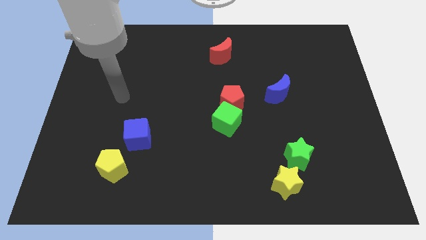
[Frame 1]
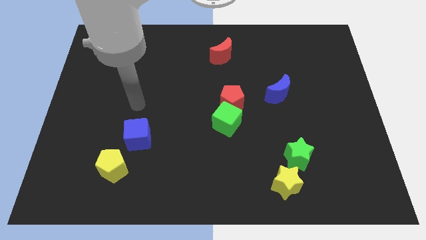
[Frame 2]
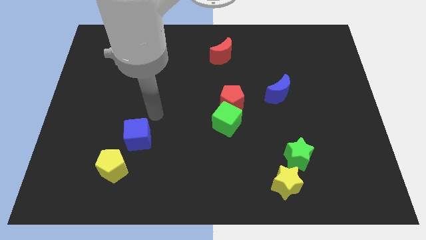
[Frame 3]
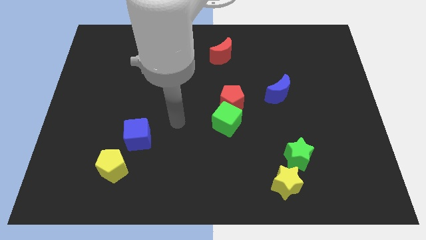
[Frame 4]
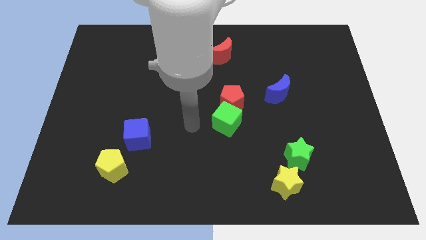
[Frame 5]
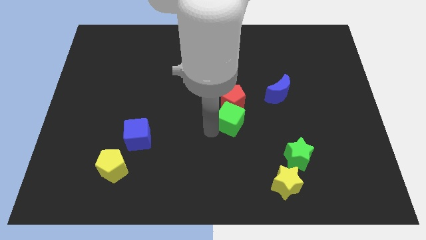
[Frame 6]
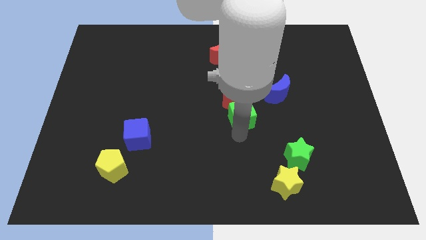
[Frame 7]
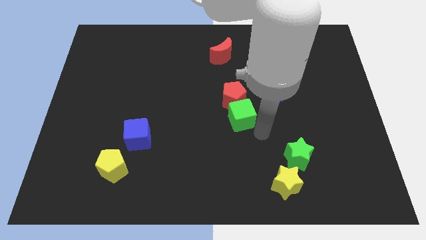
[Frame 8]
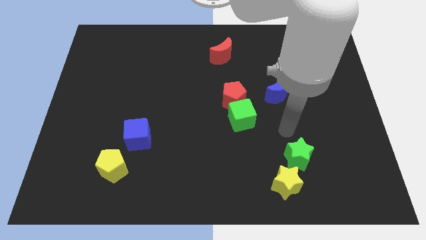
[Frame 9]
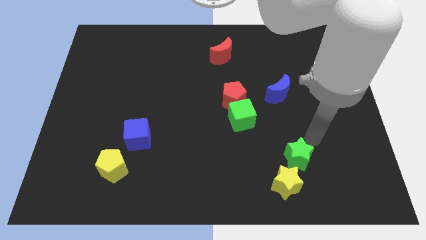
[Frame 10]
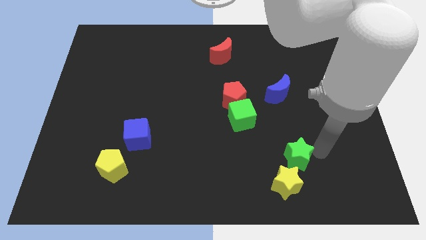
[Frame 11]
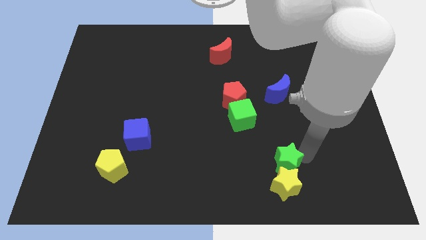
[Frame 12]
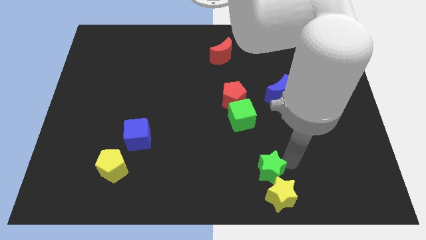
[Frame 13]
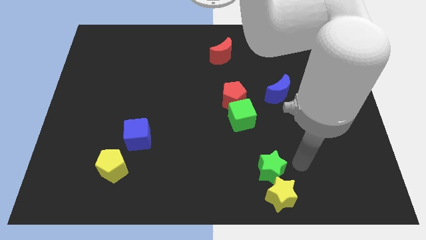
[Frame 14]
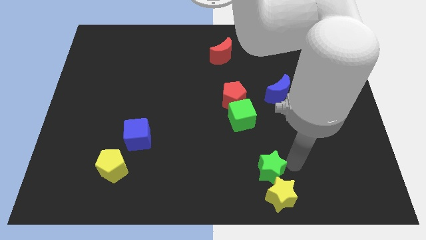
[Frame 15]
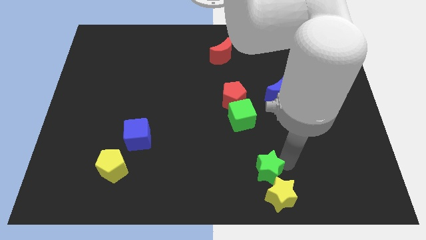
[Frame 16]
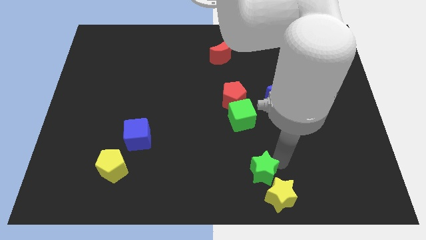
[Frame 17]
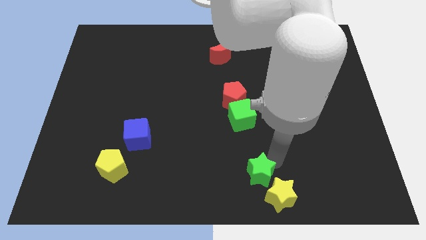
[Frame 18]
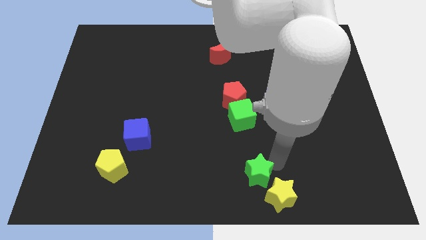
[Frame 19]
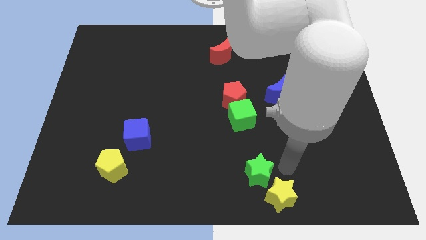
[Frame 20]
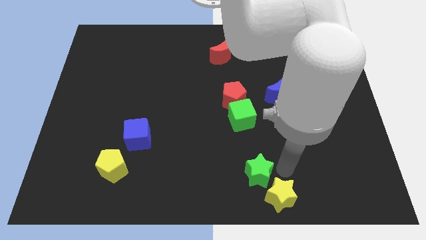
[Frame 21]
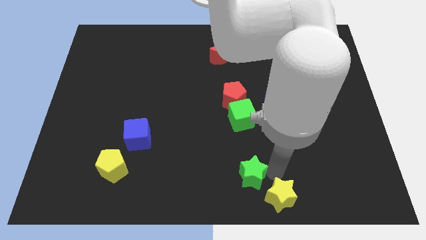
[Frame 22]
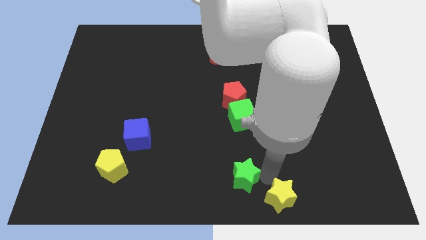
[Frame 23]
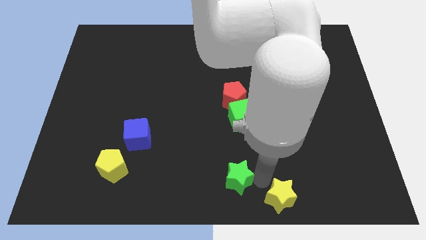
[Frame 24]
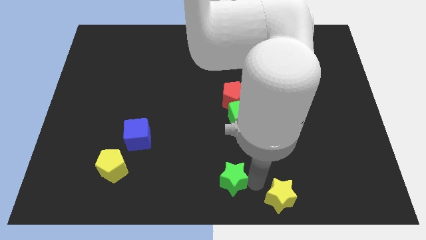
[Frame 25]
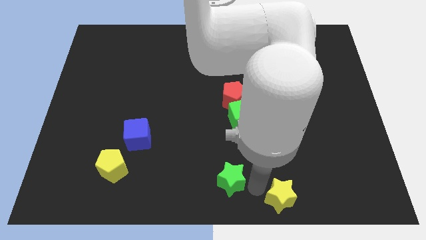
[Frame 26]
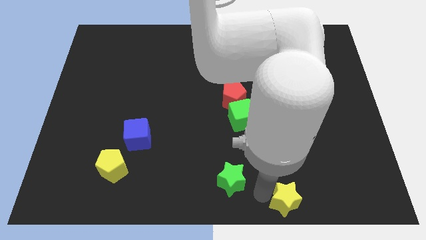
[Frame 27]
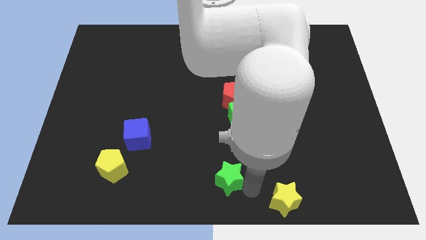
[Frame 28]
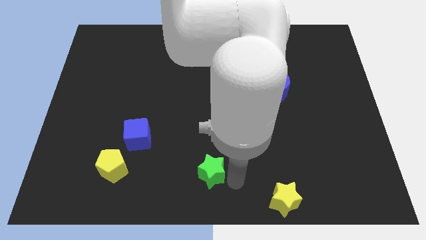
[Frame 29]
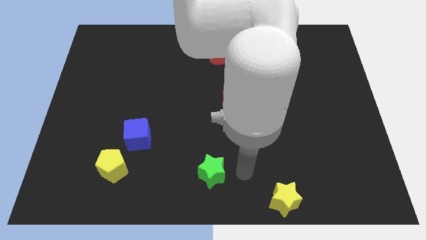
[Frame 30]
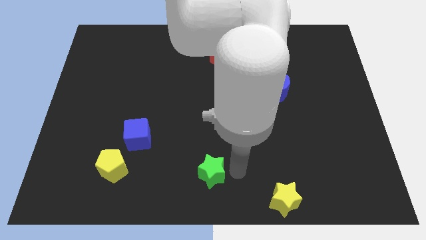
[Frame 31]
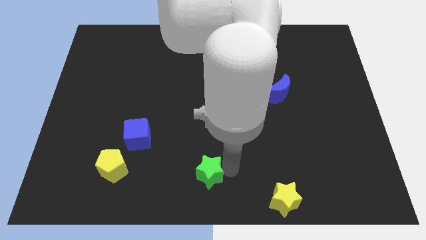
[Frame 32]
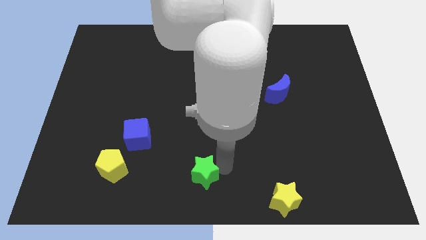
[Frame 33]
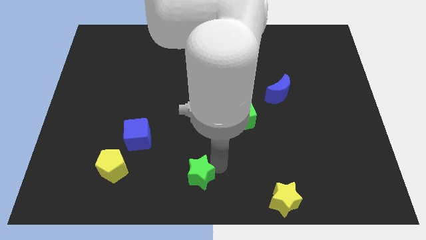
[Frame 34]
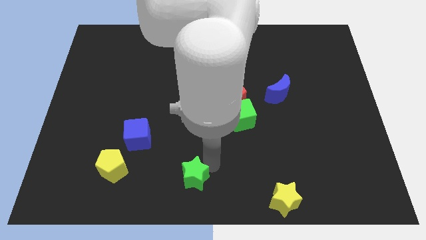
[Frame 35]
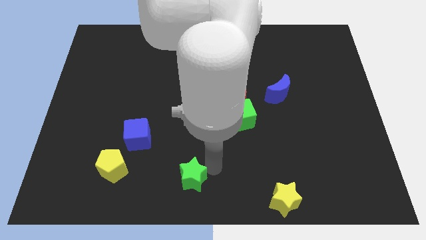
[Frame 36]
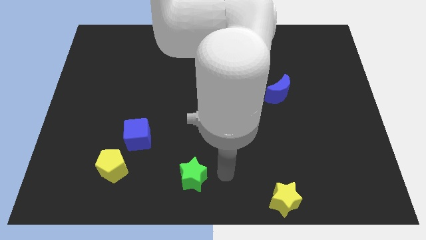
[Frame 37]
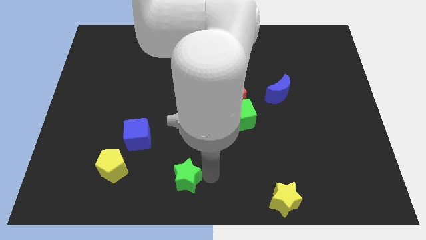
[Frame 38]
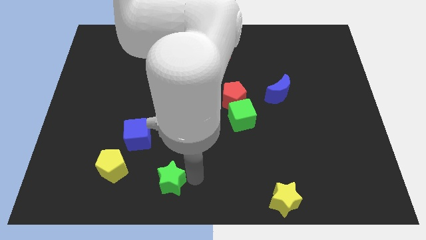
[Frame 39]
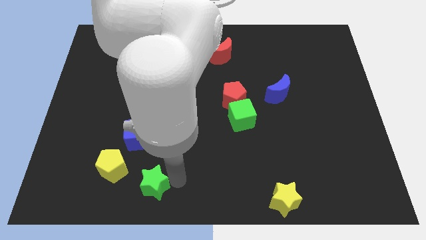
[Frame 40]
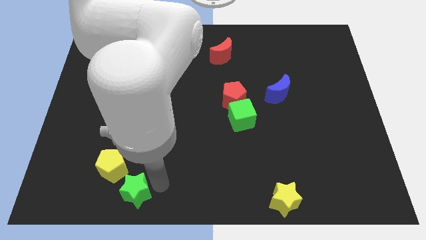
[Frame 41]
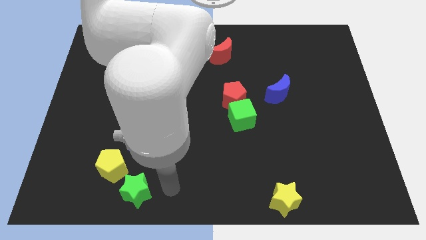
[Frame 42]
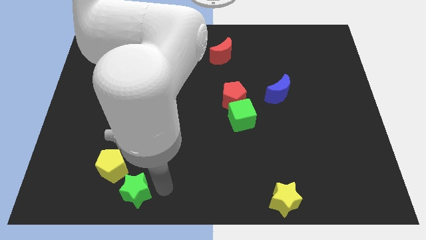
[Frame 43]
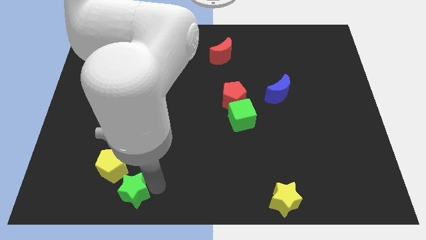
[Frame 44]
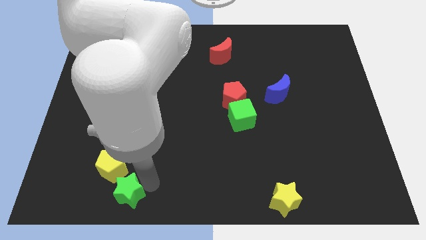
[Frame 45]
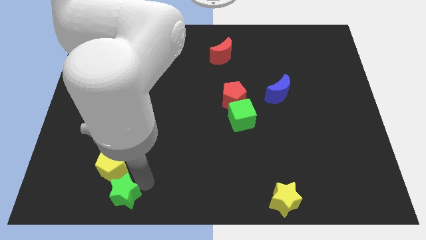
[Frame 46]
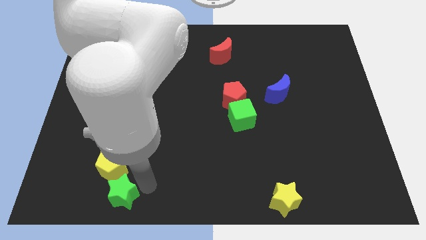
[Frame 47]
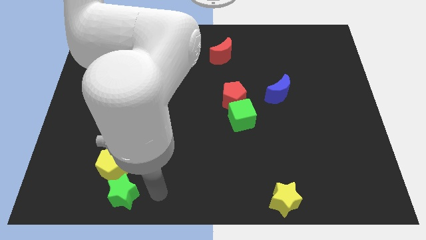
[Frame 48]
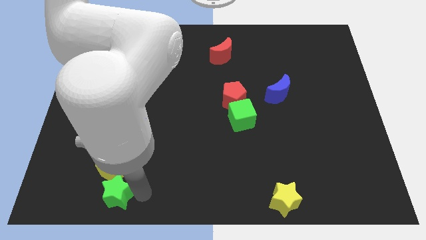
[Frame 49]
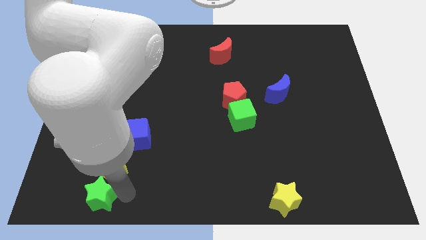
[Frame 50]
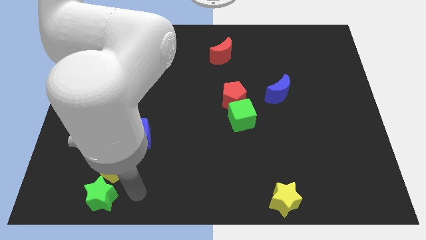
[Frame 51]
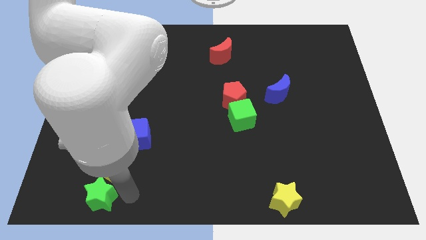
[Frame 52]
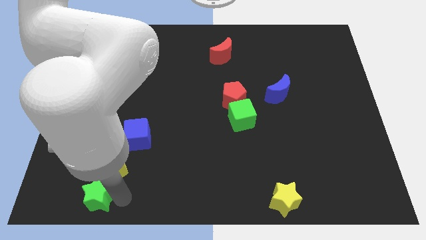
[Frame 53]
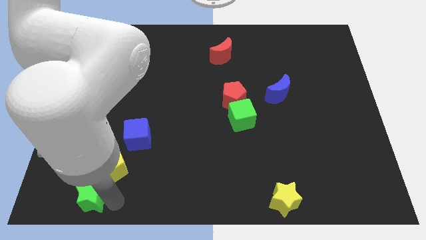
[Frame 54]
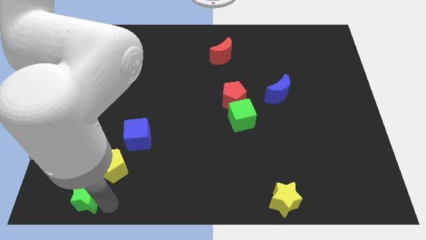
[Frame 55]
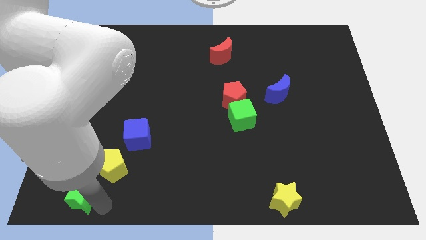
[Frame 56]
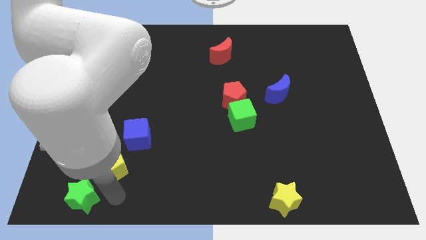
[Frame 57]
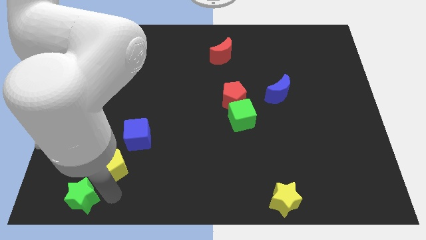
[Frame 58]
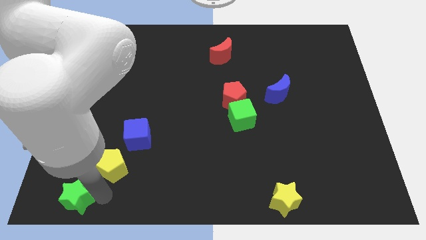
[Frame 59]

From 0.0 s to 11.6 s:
push the green star to the bottom left of the board
